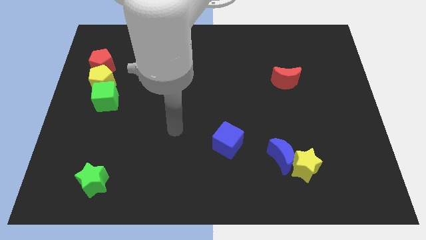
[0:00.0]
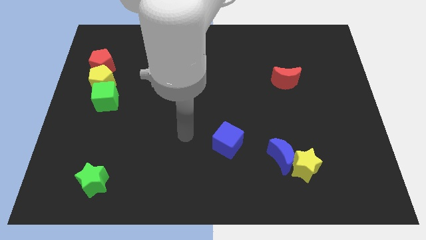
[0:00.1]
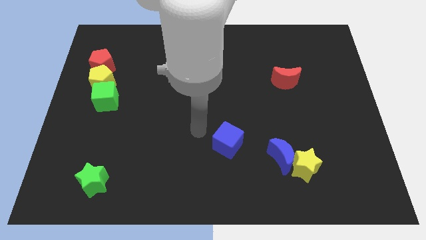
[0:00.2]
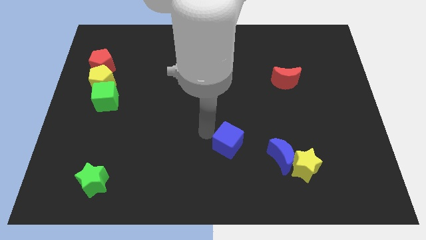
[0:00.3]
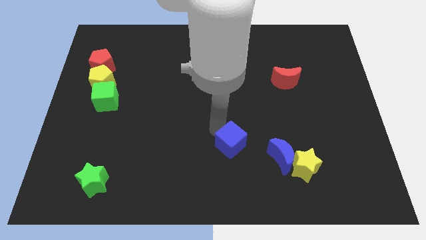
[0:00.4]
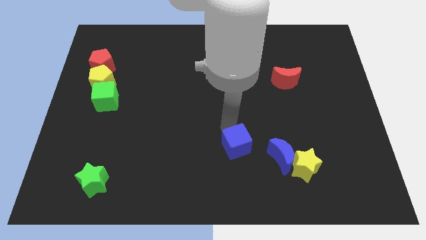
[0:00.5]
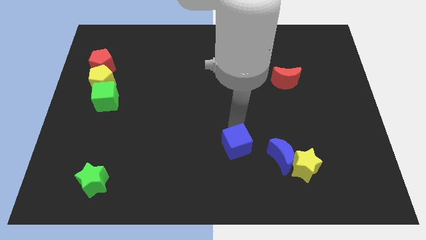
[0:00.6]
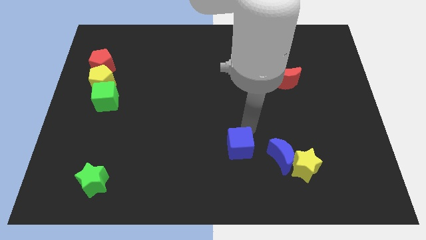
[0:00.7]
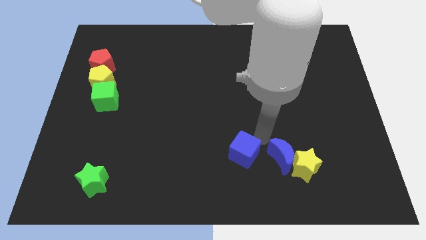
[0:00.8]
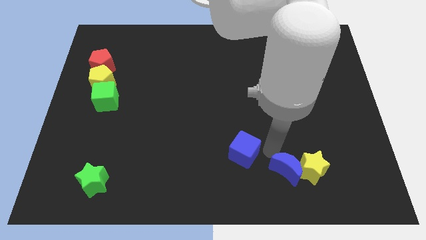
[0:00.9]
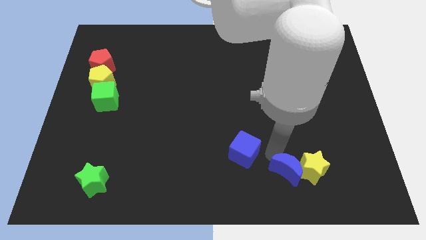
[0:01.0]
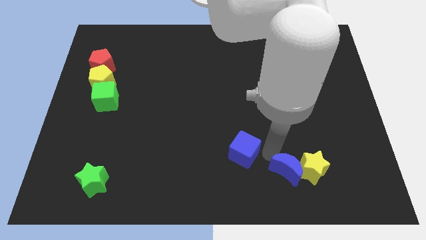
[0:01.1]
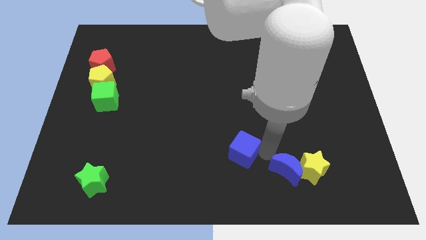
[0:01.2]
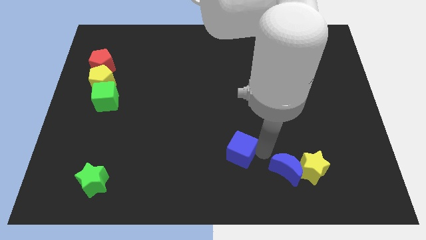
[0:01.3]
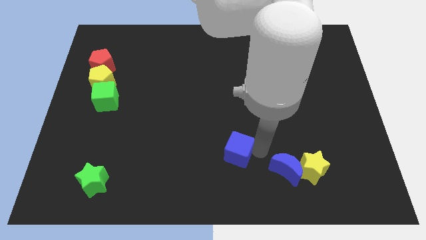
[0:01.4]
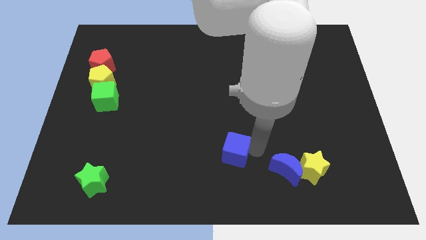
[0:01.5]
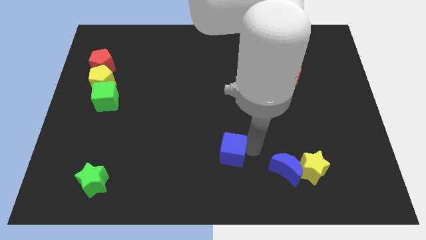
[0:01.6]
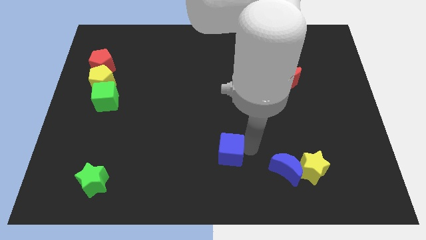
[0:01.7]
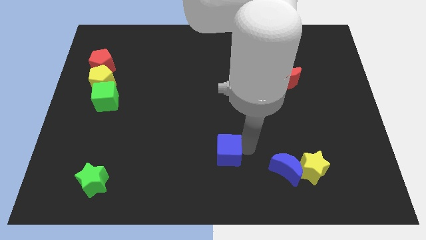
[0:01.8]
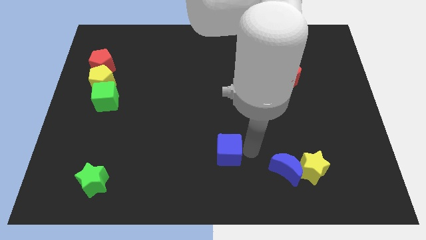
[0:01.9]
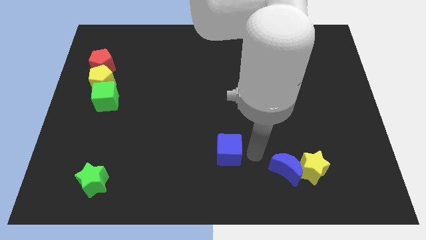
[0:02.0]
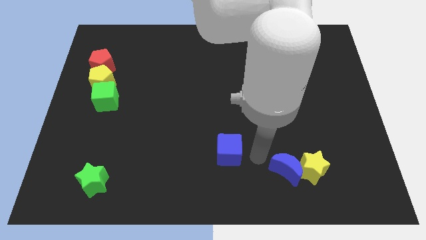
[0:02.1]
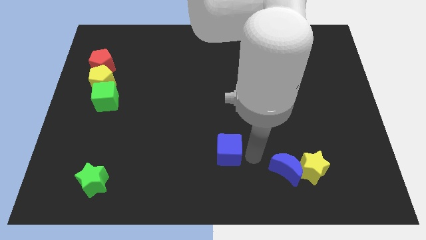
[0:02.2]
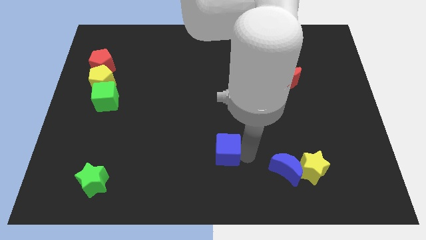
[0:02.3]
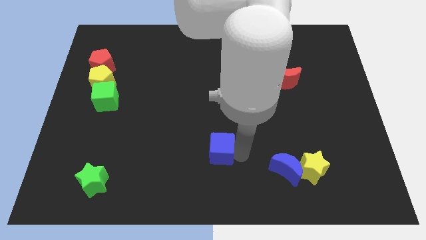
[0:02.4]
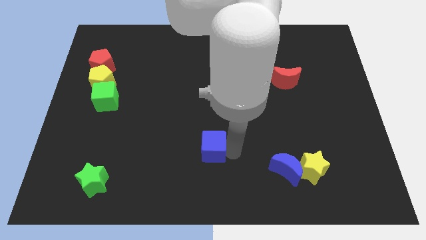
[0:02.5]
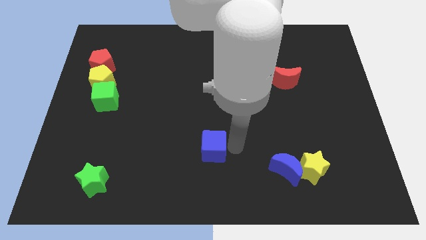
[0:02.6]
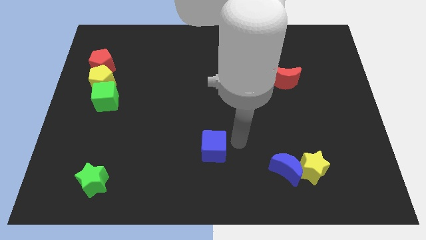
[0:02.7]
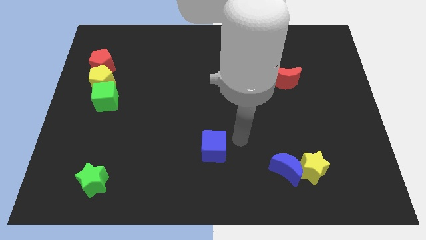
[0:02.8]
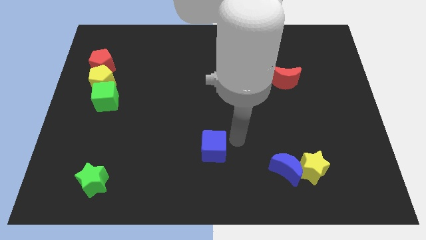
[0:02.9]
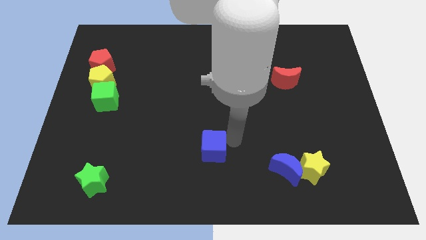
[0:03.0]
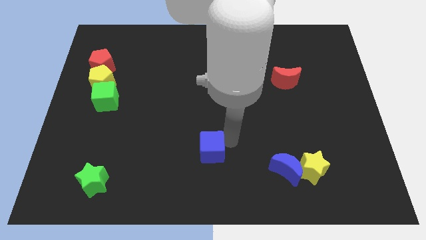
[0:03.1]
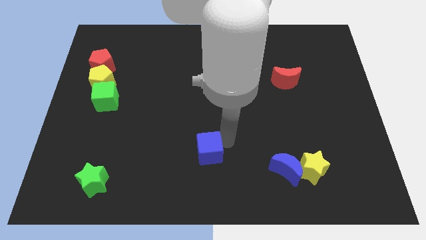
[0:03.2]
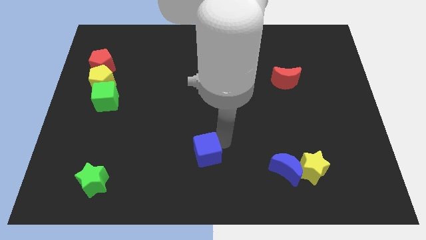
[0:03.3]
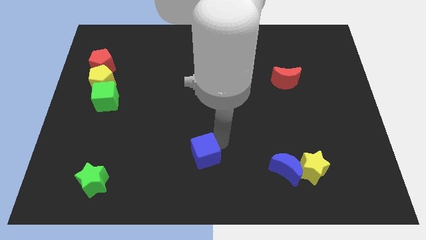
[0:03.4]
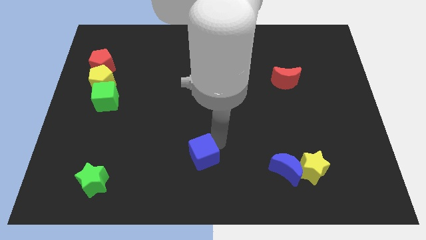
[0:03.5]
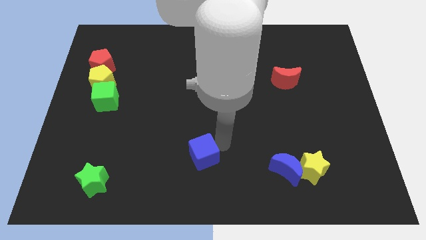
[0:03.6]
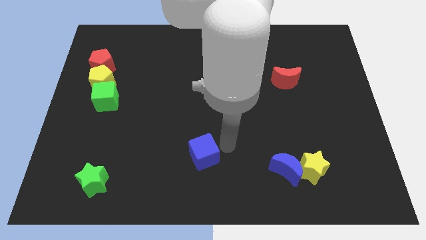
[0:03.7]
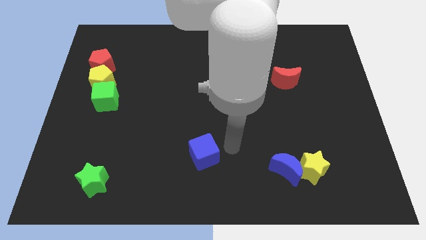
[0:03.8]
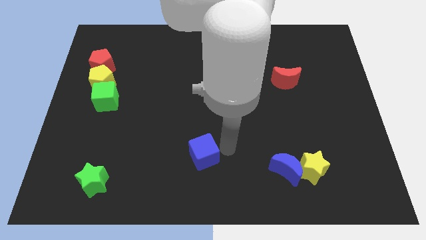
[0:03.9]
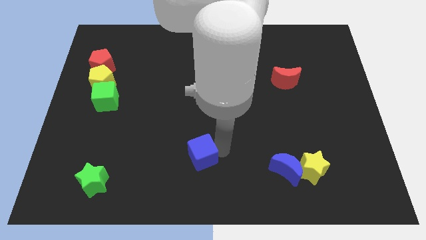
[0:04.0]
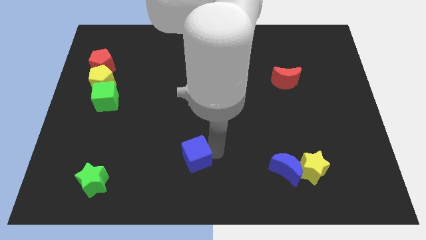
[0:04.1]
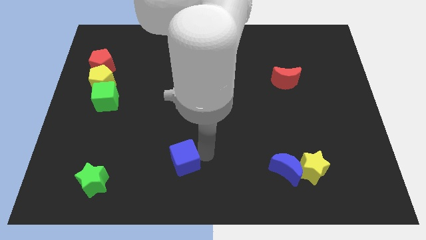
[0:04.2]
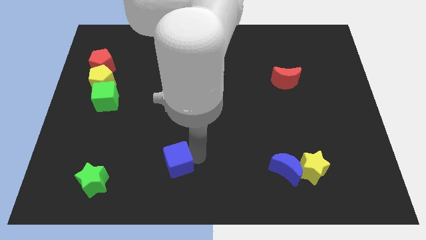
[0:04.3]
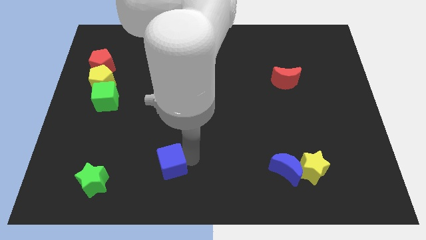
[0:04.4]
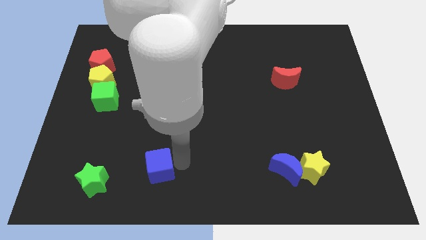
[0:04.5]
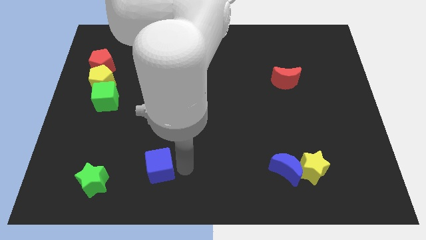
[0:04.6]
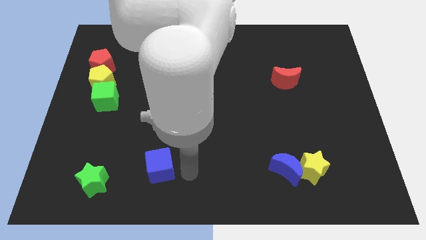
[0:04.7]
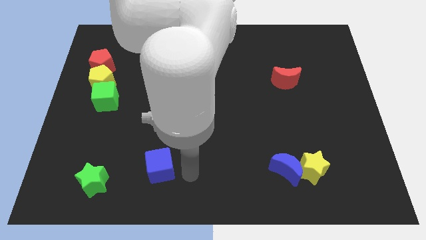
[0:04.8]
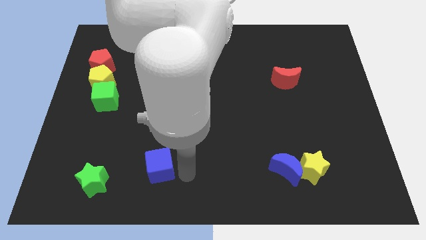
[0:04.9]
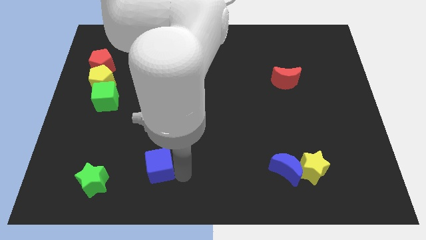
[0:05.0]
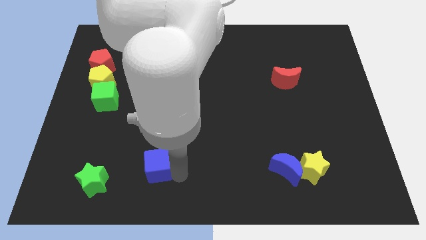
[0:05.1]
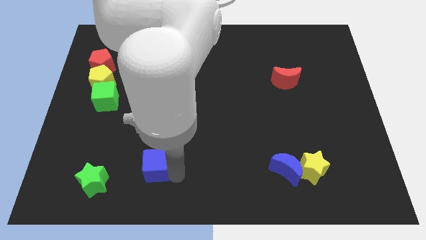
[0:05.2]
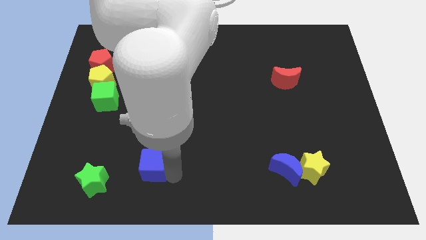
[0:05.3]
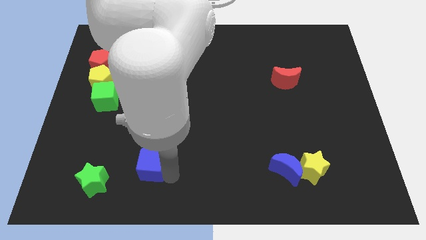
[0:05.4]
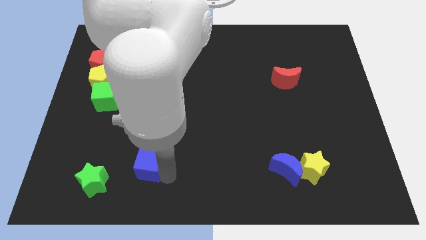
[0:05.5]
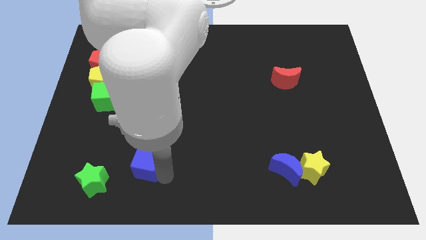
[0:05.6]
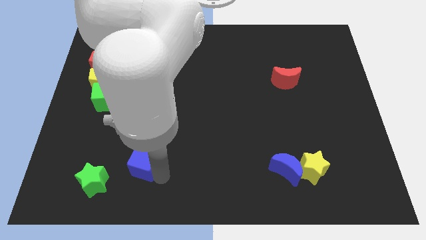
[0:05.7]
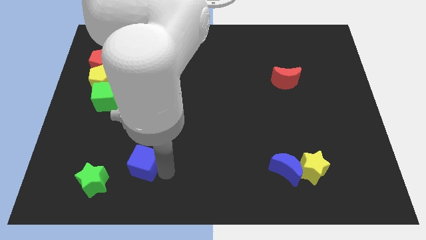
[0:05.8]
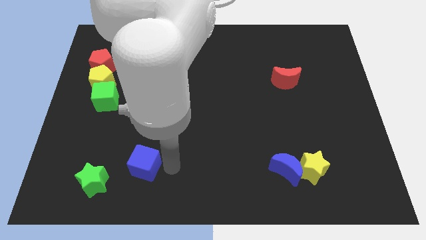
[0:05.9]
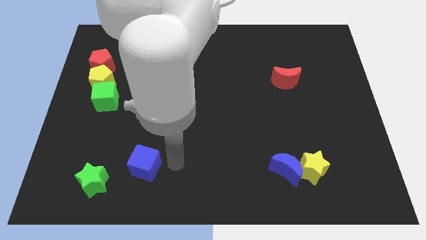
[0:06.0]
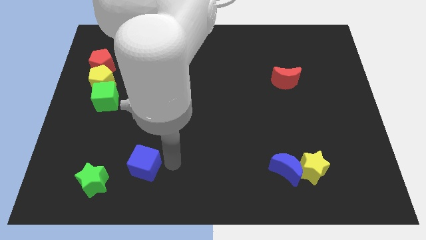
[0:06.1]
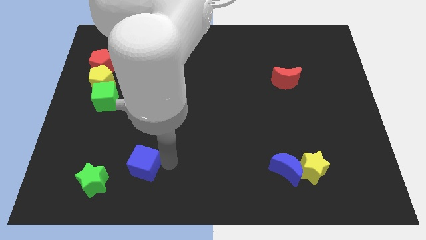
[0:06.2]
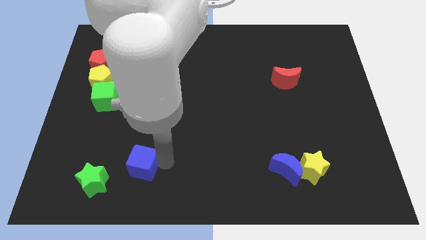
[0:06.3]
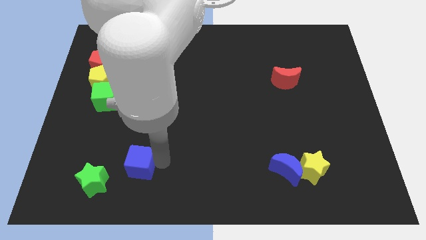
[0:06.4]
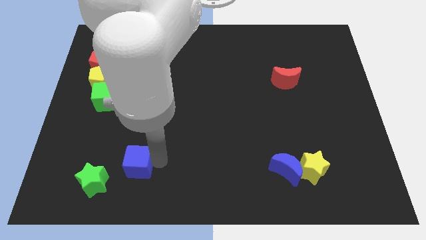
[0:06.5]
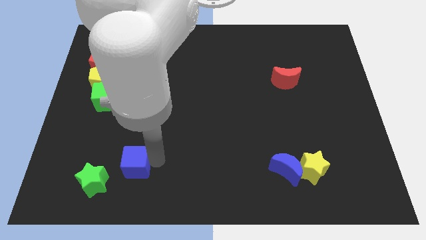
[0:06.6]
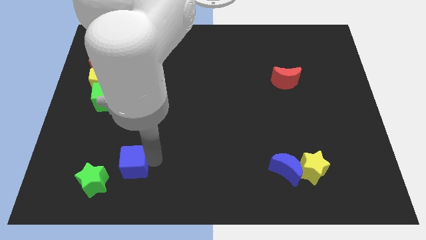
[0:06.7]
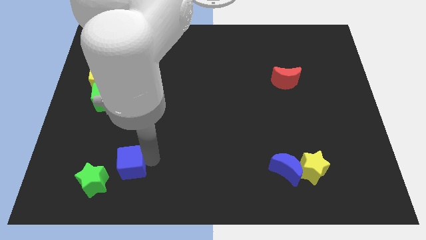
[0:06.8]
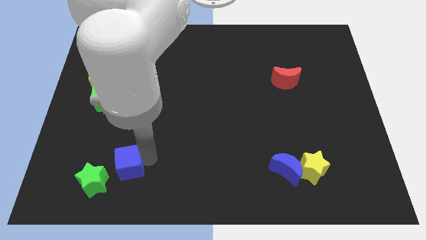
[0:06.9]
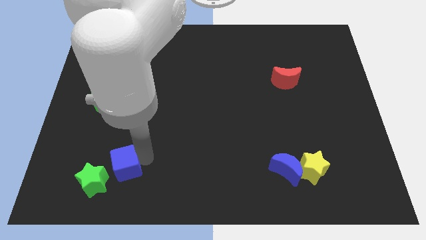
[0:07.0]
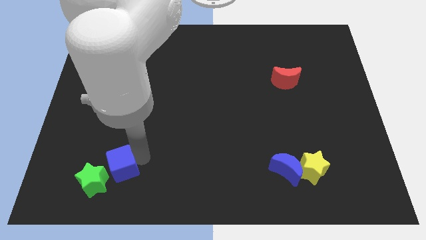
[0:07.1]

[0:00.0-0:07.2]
slide the blue cube towards the green star
